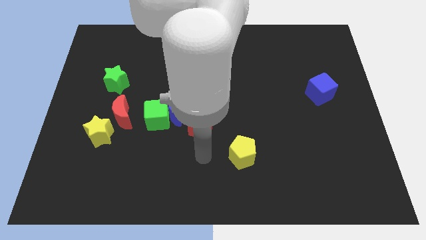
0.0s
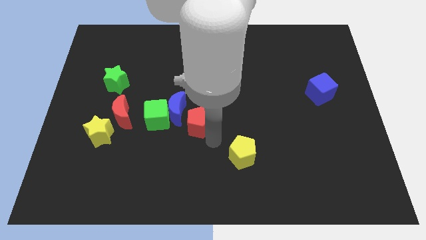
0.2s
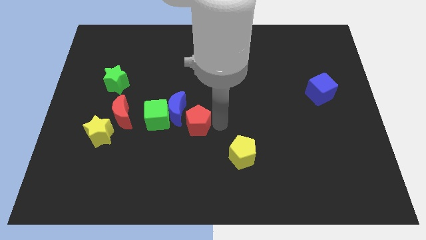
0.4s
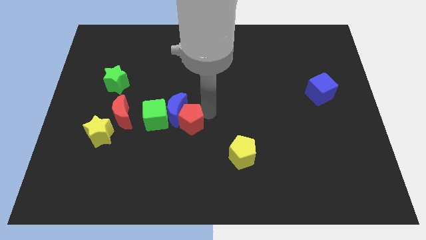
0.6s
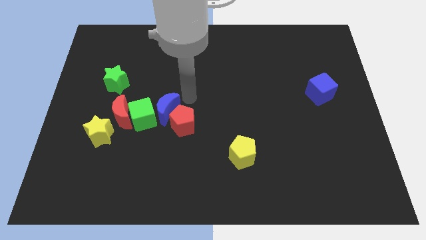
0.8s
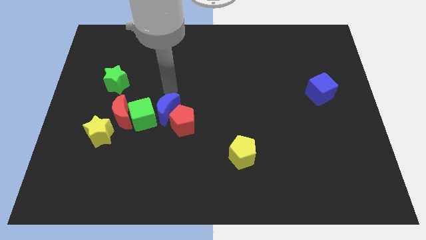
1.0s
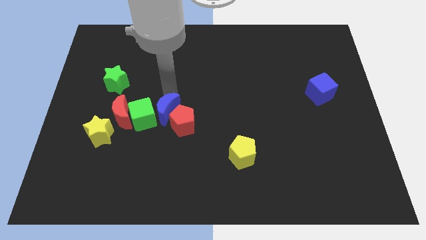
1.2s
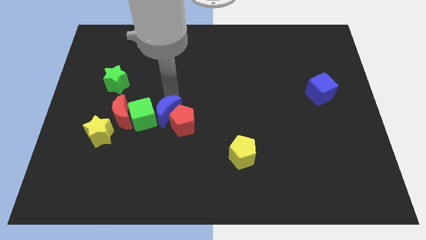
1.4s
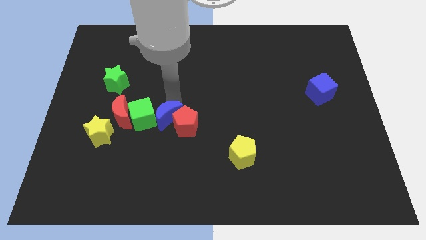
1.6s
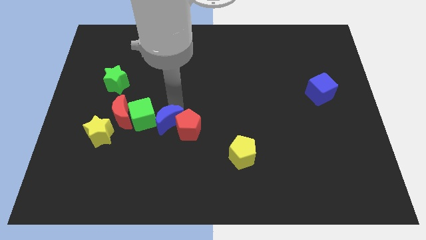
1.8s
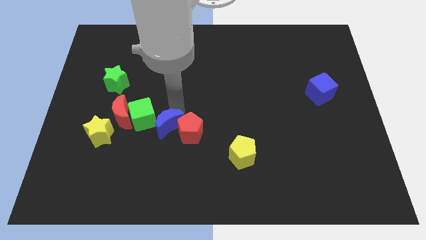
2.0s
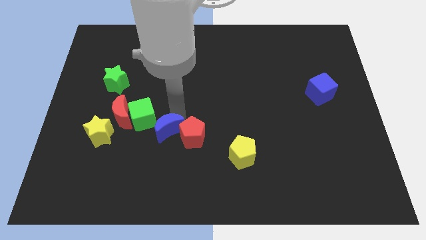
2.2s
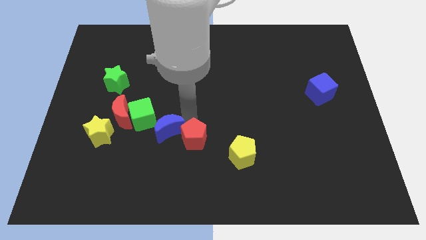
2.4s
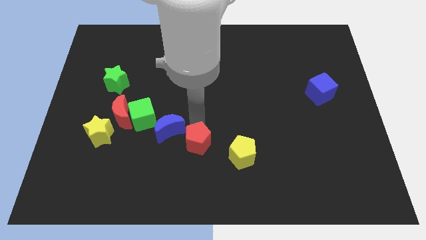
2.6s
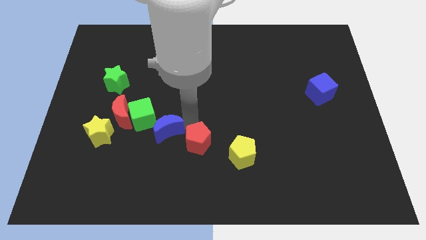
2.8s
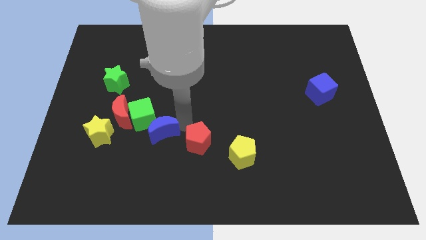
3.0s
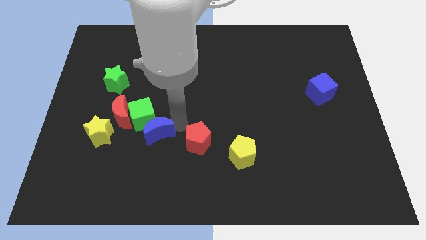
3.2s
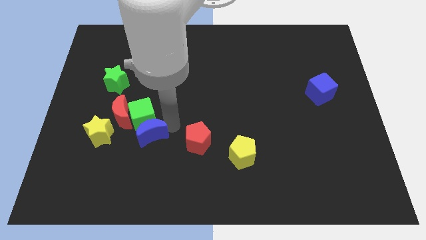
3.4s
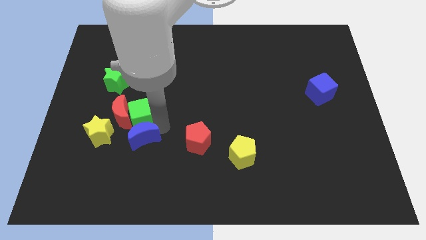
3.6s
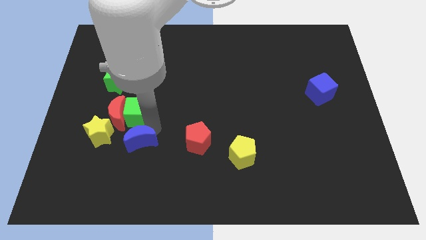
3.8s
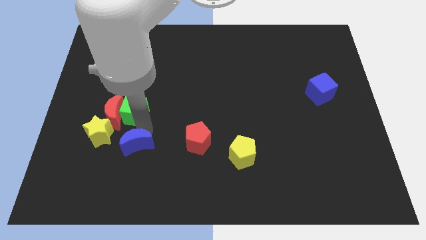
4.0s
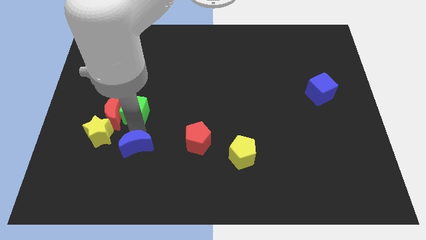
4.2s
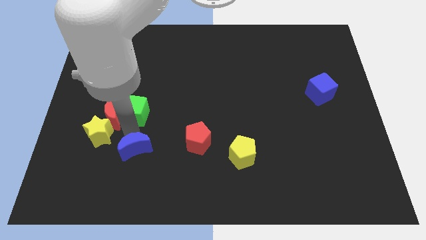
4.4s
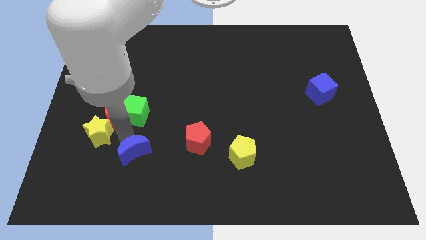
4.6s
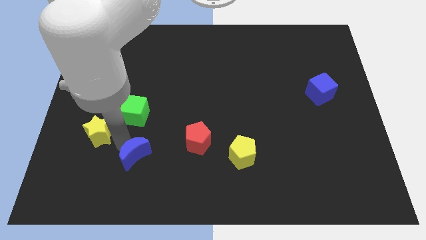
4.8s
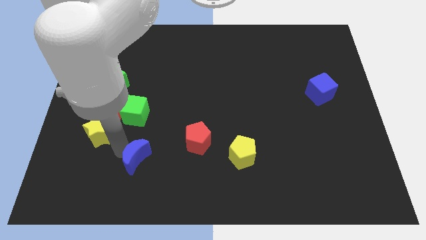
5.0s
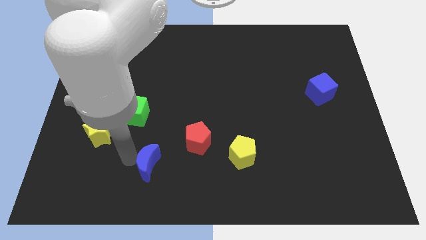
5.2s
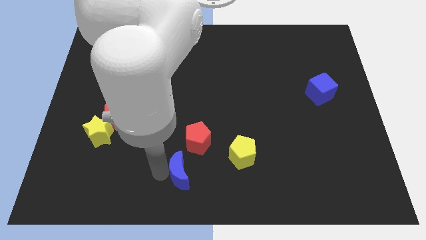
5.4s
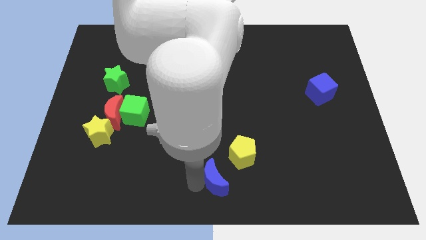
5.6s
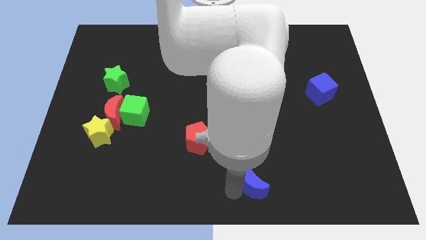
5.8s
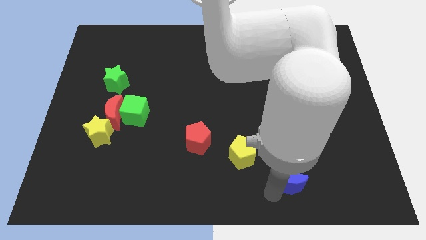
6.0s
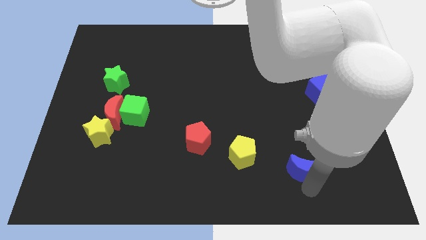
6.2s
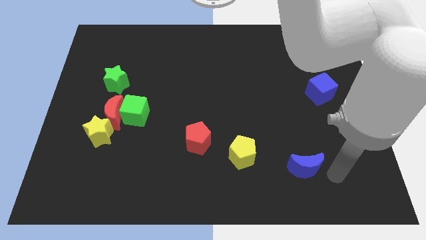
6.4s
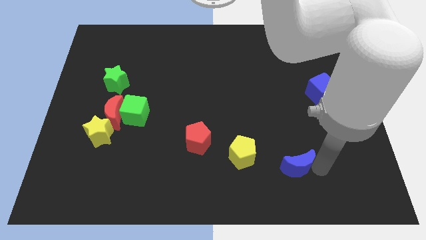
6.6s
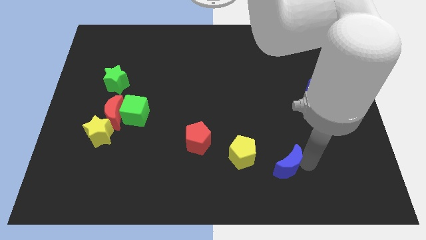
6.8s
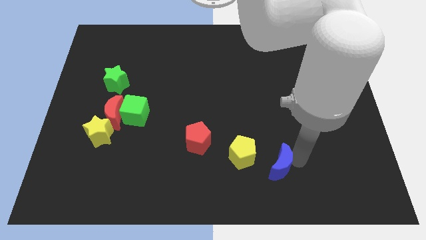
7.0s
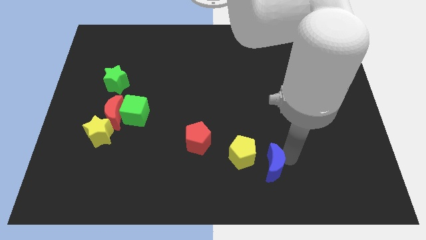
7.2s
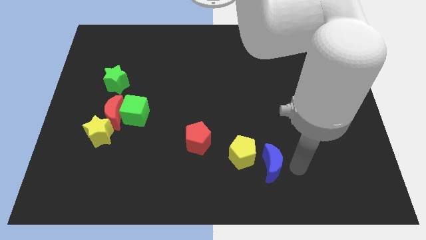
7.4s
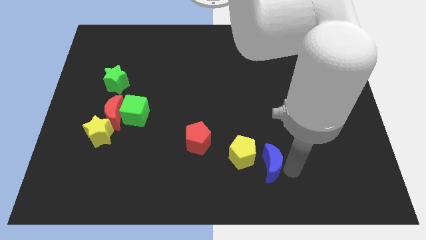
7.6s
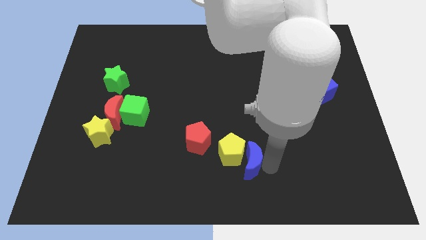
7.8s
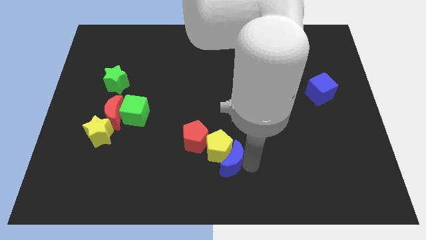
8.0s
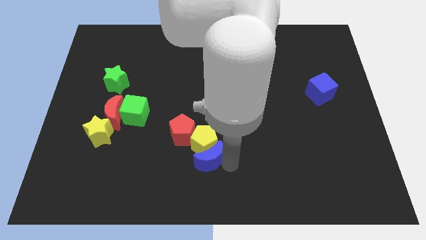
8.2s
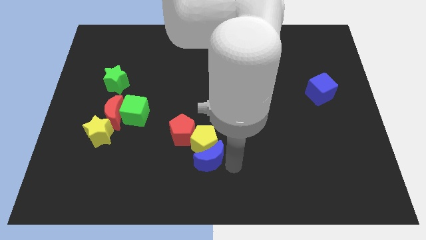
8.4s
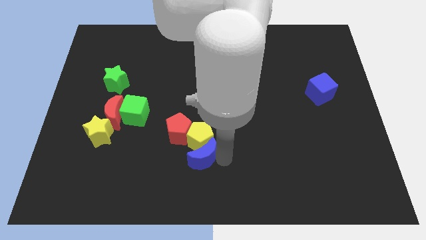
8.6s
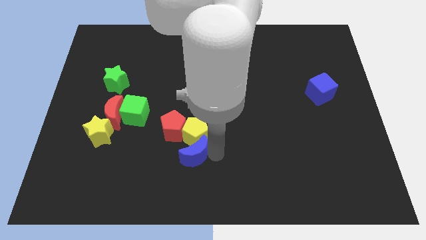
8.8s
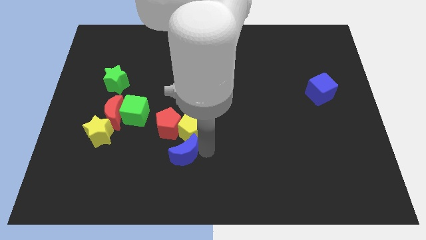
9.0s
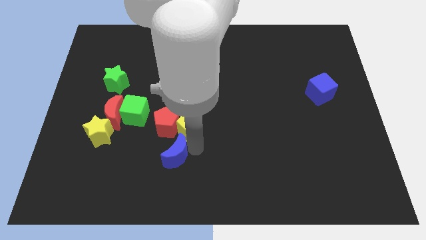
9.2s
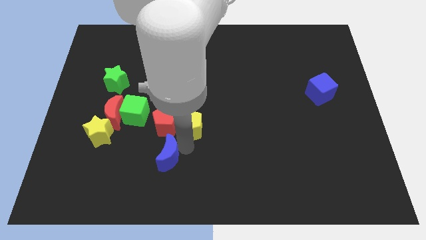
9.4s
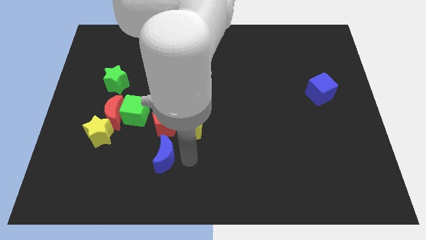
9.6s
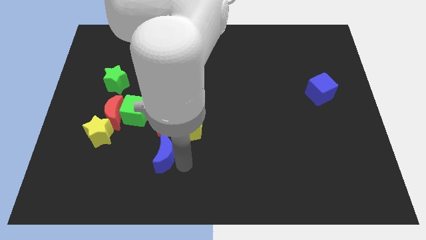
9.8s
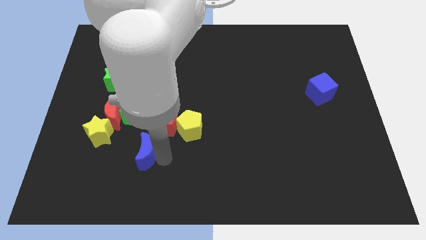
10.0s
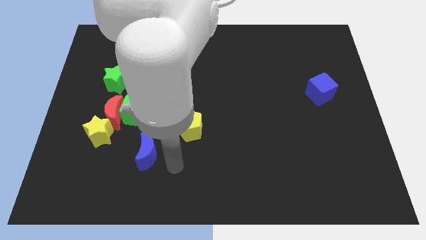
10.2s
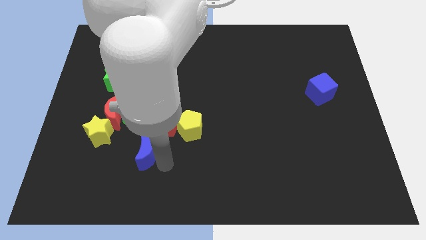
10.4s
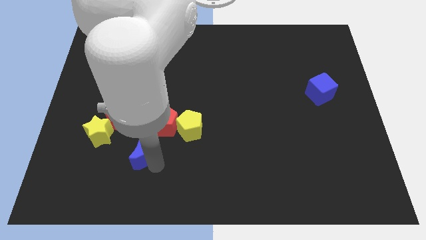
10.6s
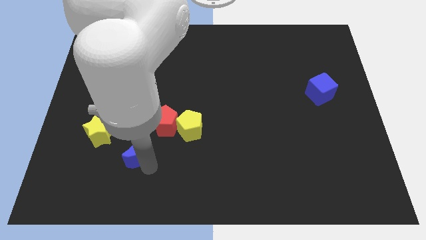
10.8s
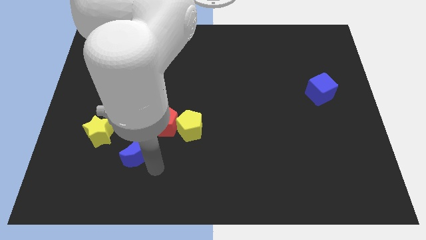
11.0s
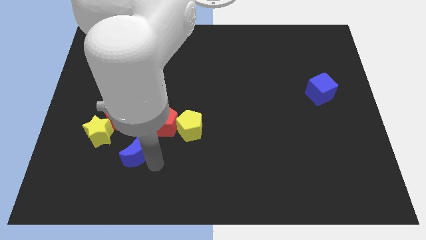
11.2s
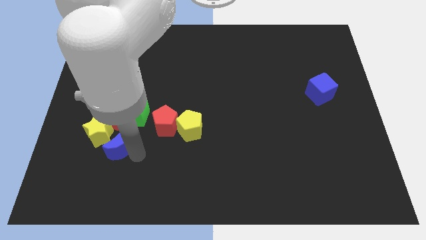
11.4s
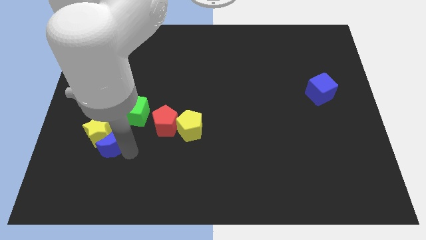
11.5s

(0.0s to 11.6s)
push the blue moon next to the yellow star

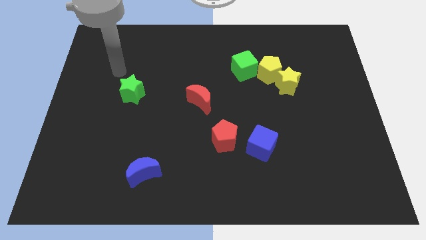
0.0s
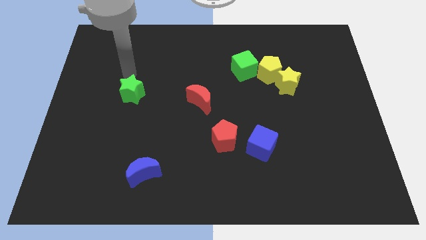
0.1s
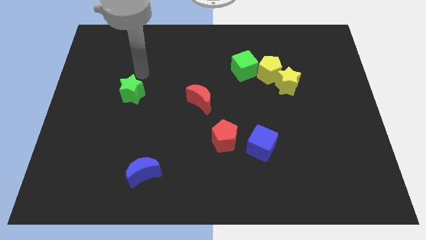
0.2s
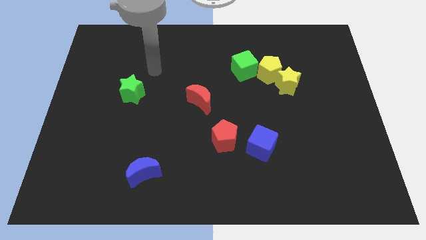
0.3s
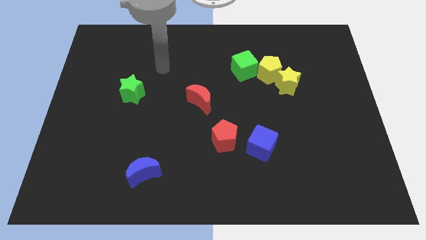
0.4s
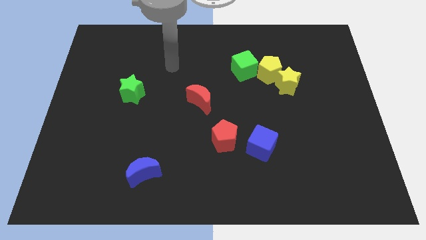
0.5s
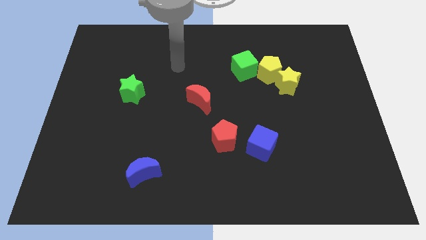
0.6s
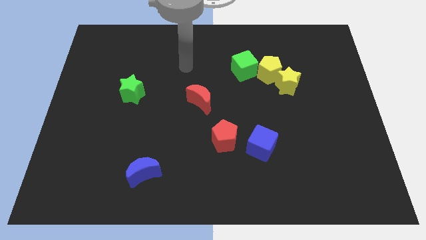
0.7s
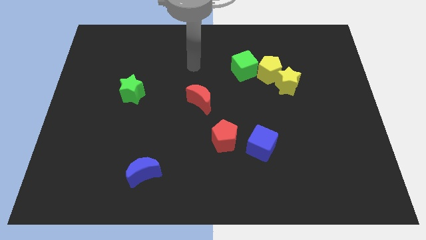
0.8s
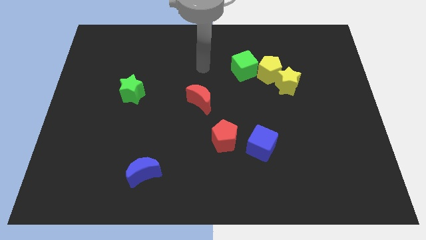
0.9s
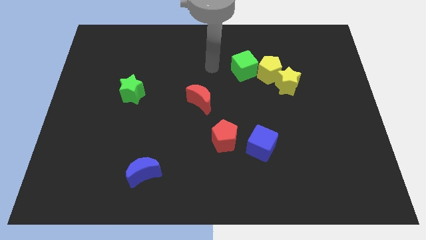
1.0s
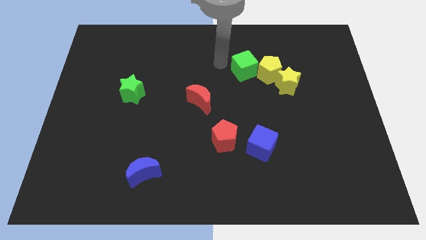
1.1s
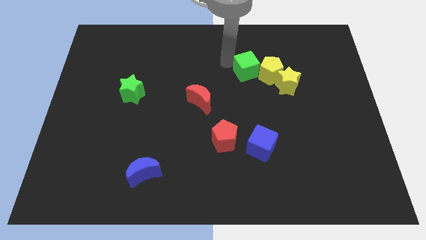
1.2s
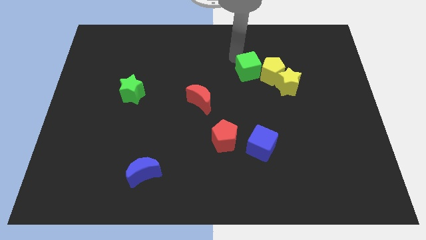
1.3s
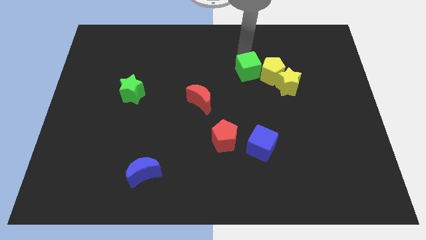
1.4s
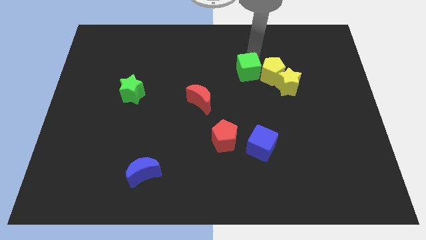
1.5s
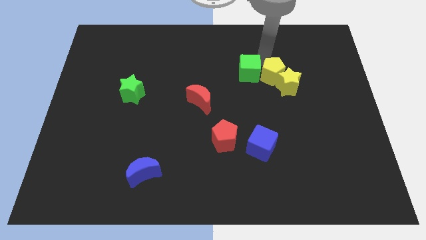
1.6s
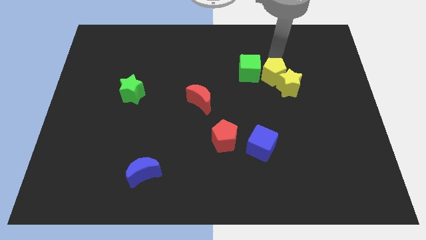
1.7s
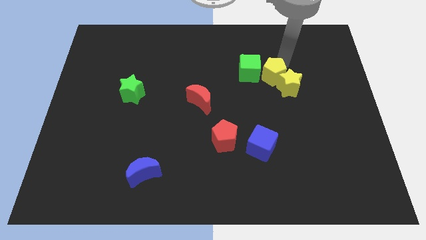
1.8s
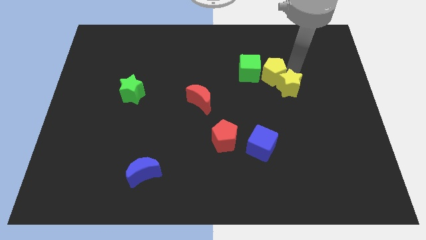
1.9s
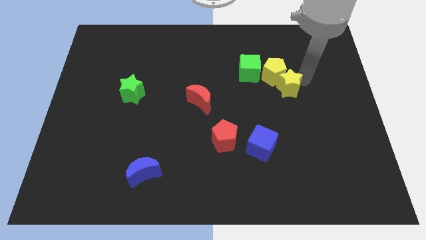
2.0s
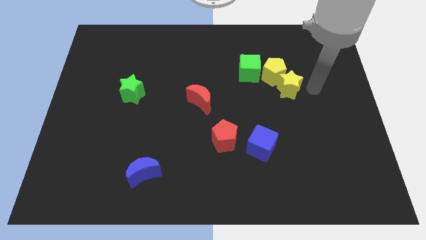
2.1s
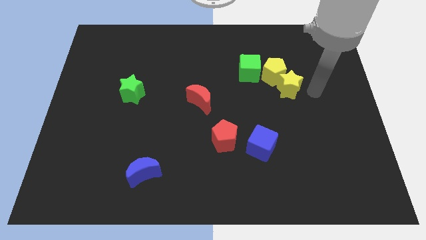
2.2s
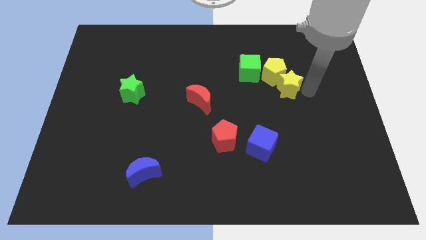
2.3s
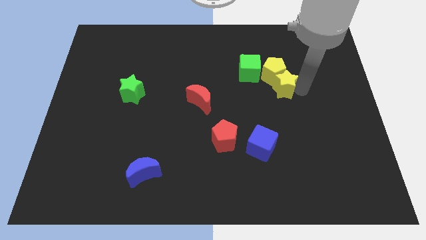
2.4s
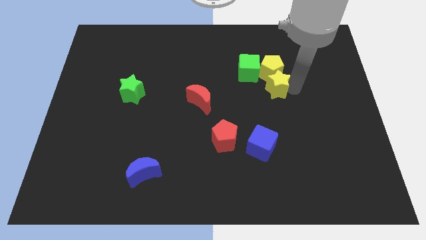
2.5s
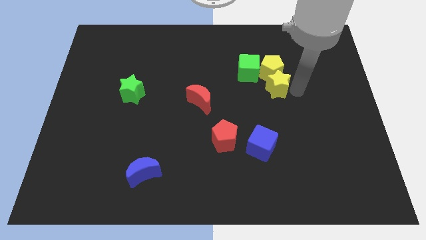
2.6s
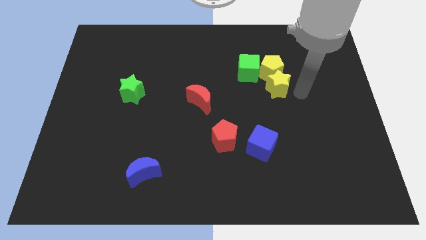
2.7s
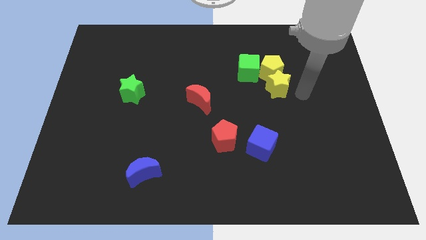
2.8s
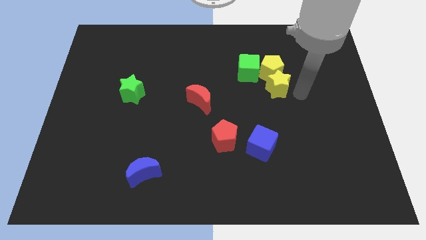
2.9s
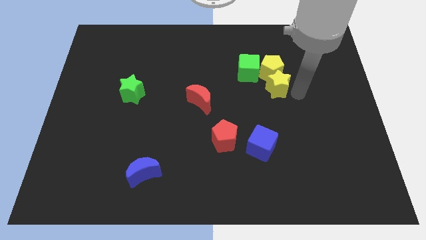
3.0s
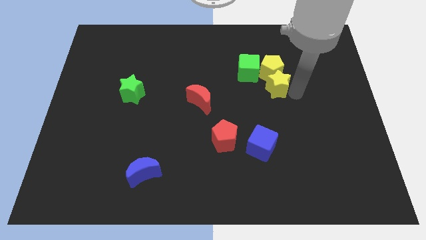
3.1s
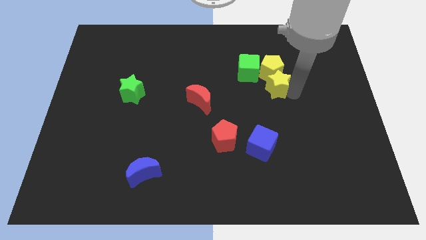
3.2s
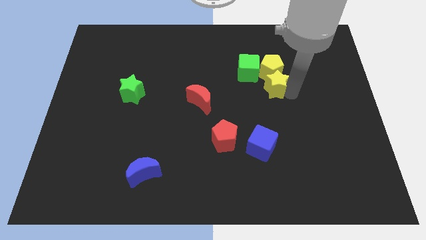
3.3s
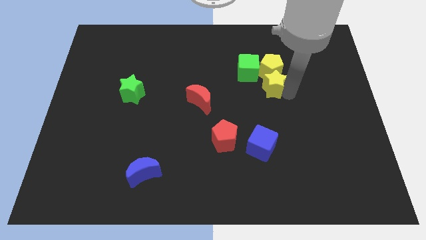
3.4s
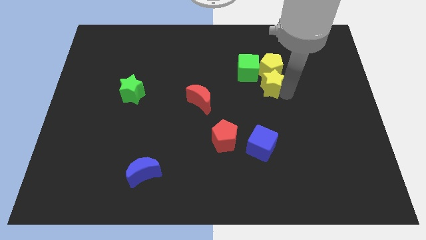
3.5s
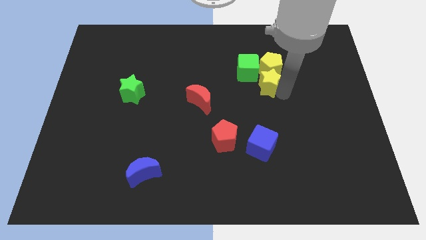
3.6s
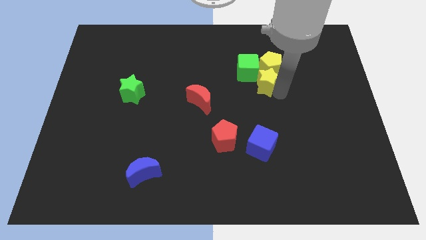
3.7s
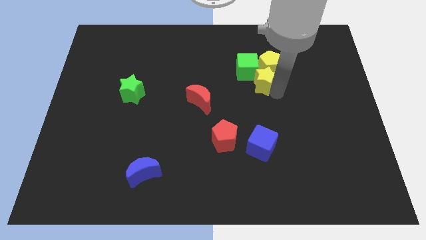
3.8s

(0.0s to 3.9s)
slide the yellow star close to the green cube
